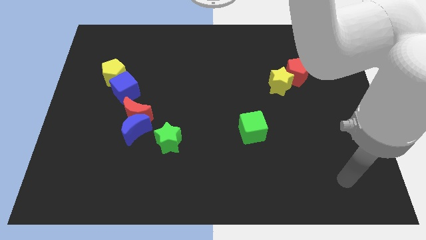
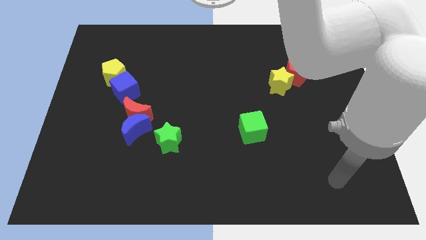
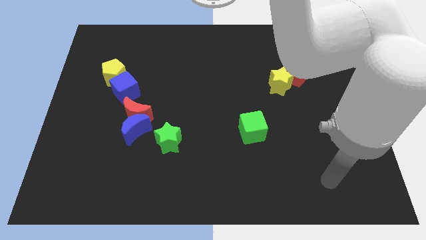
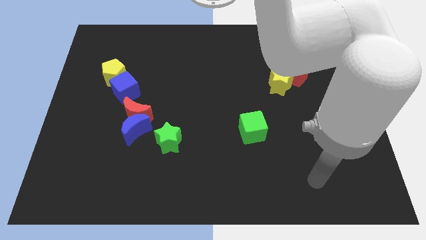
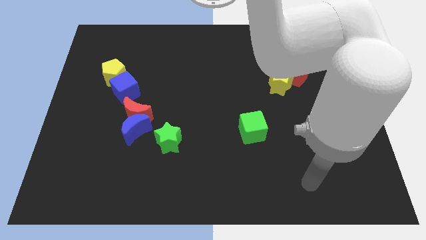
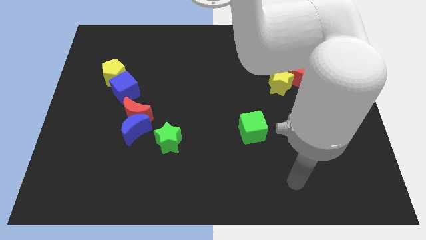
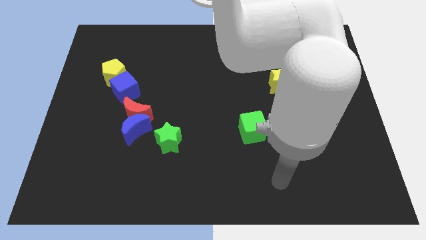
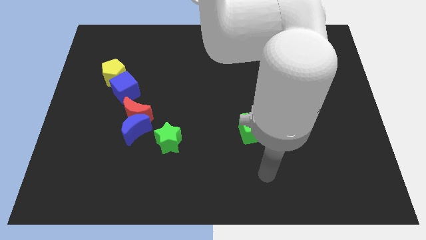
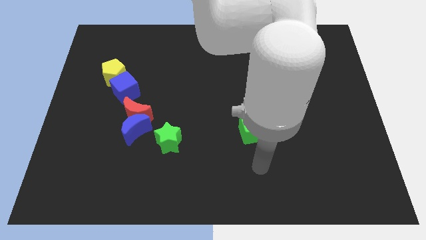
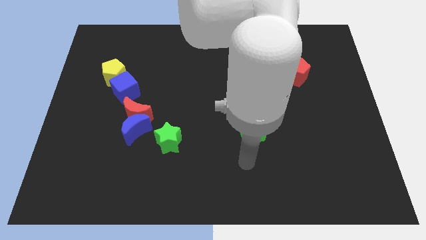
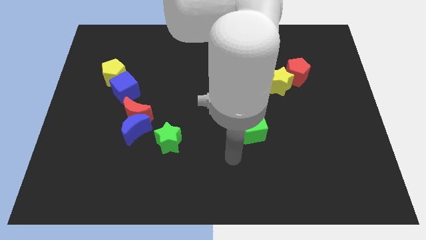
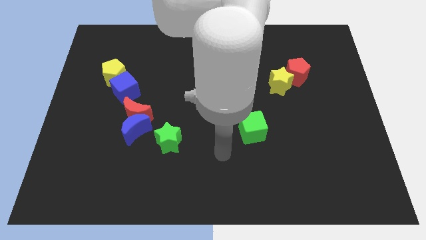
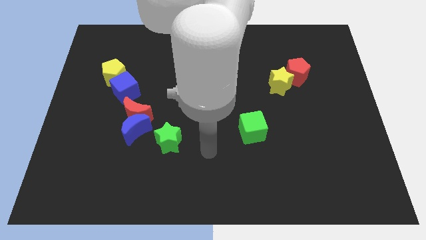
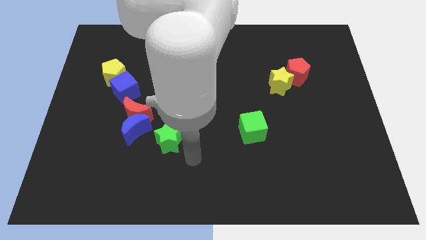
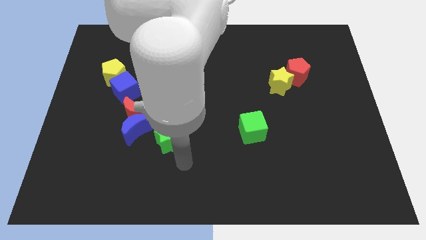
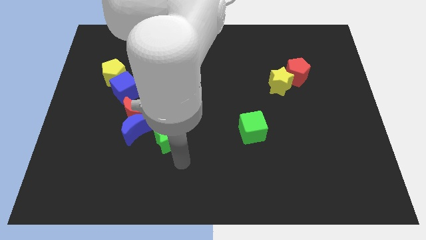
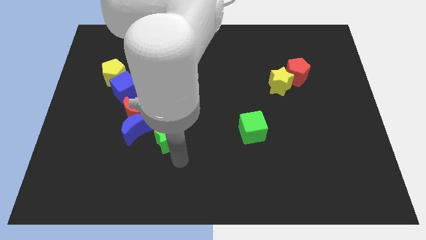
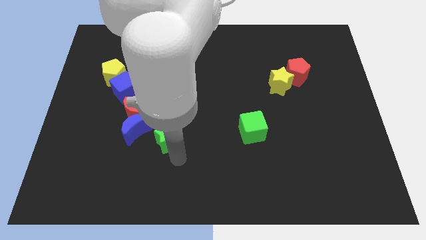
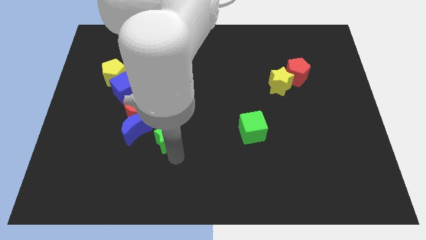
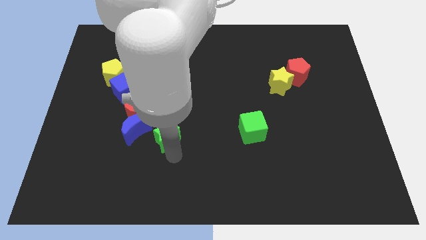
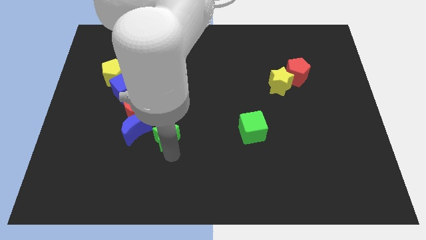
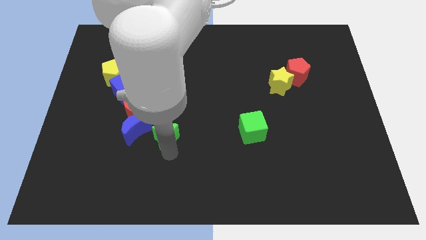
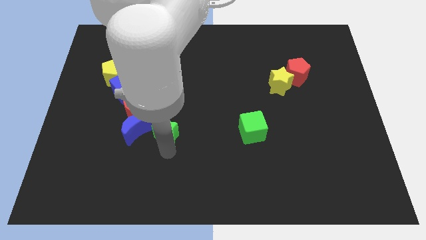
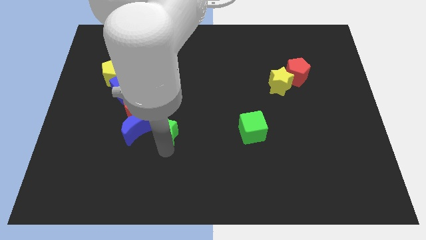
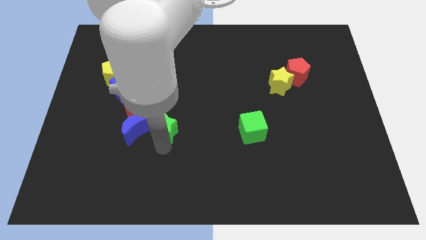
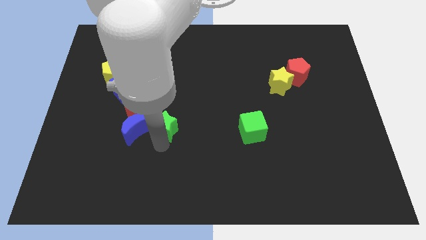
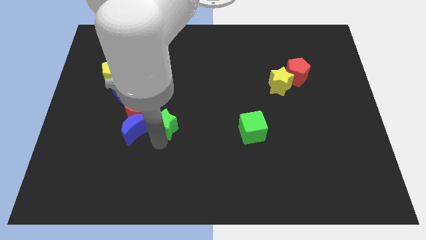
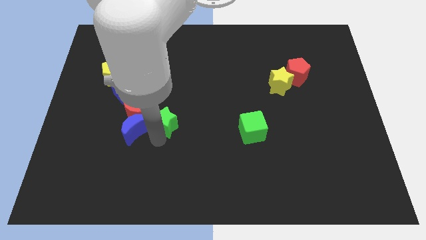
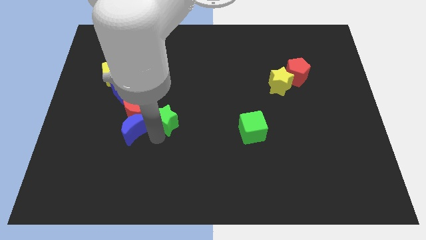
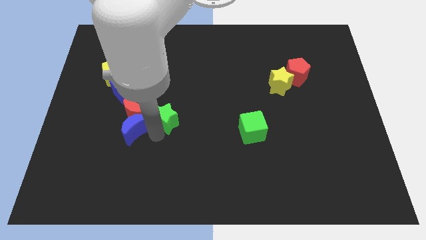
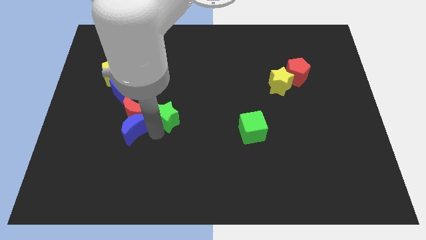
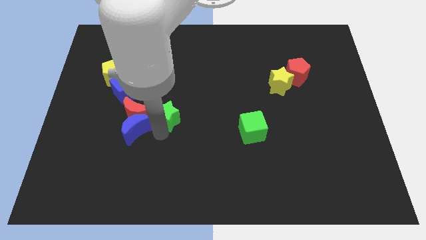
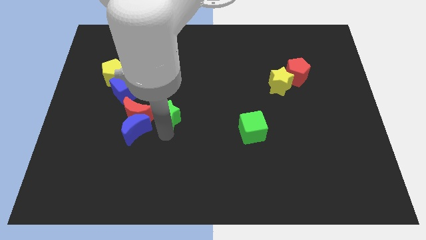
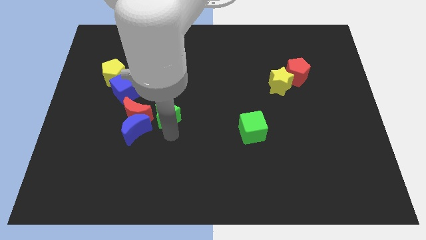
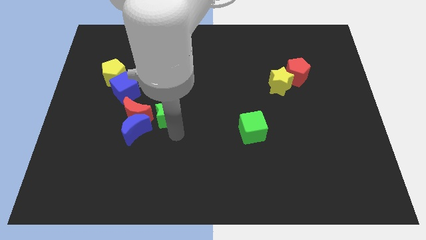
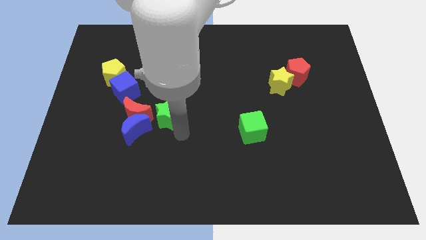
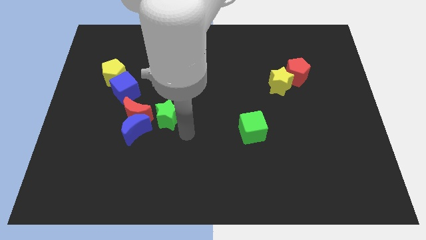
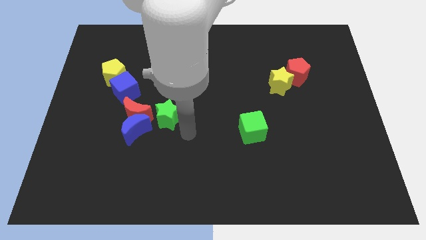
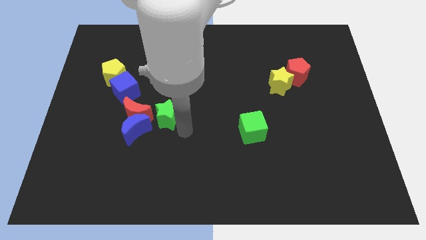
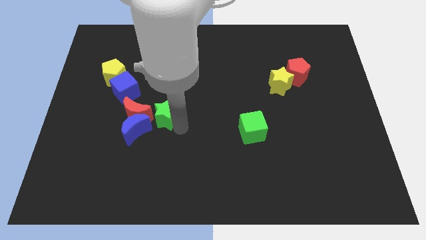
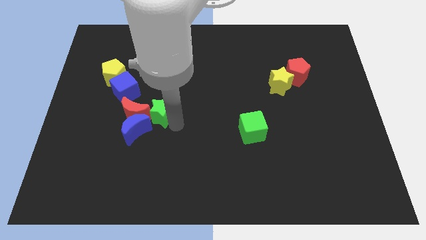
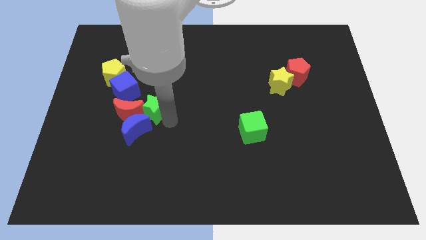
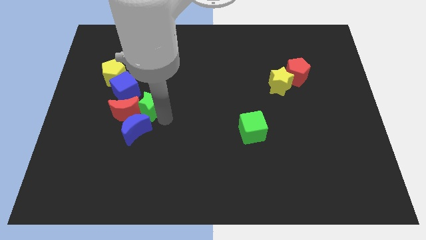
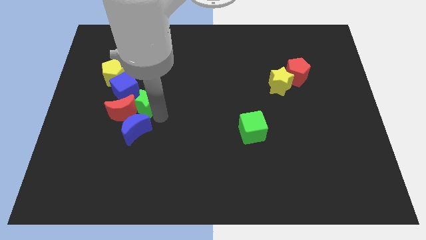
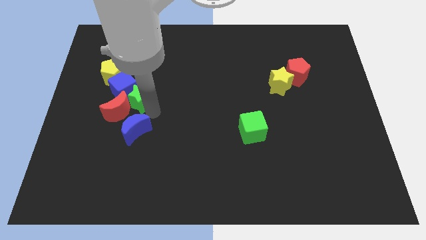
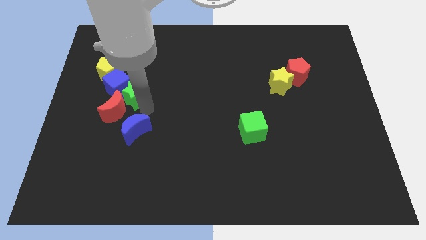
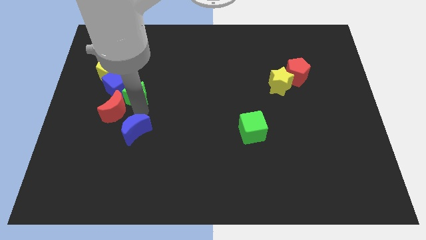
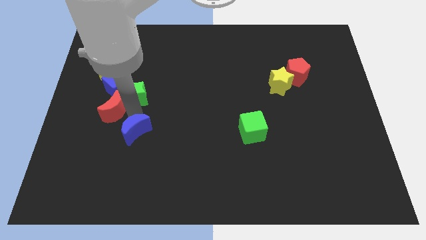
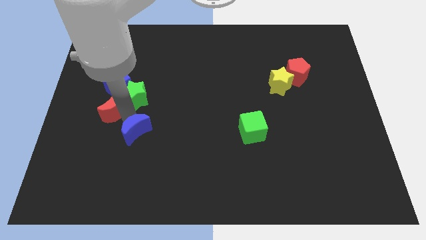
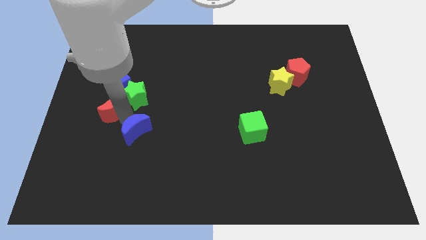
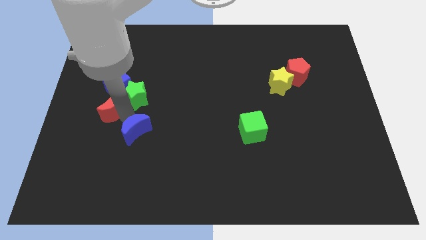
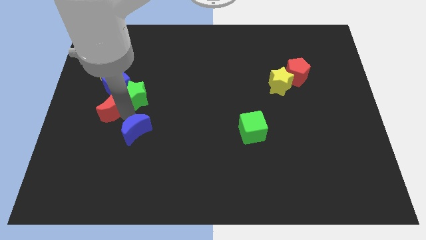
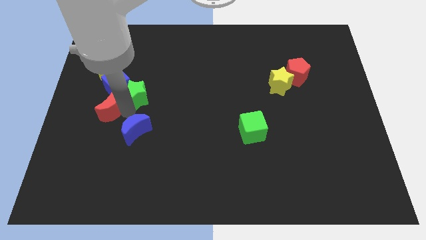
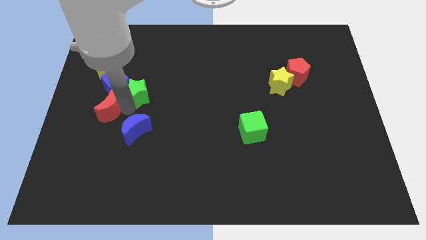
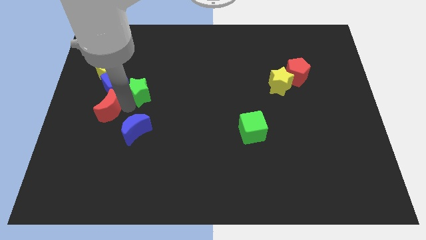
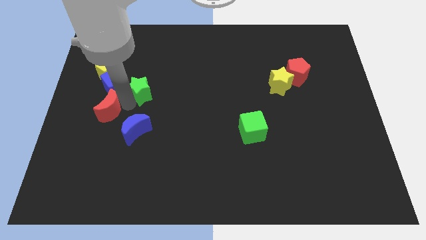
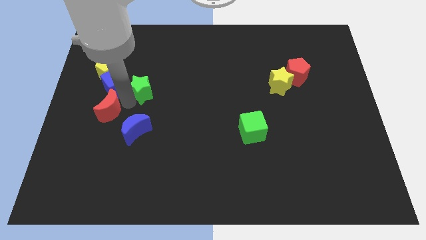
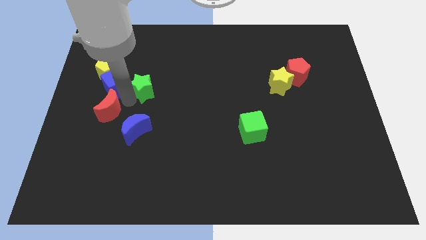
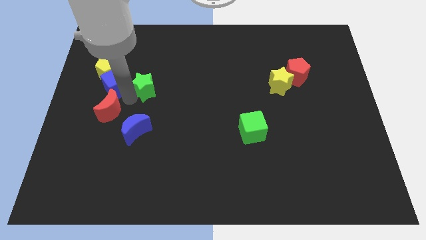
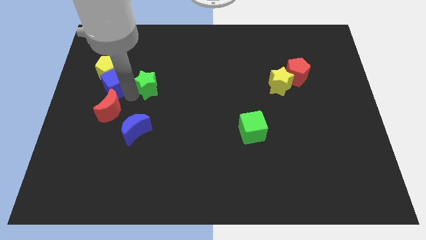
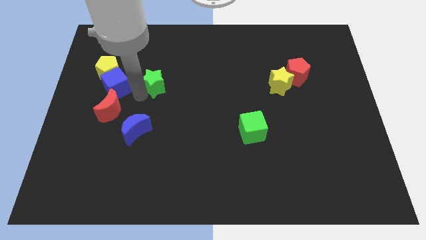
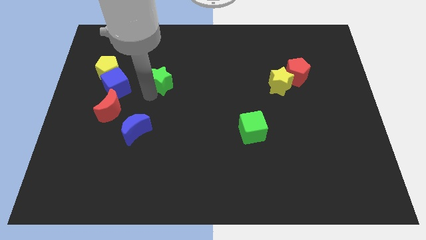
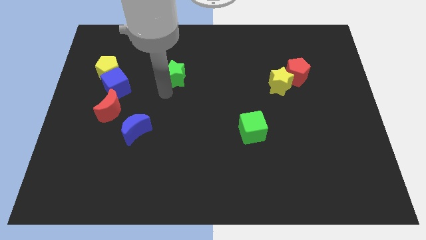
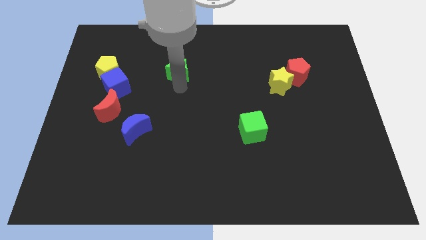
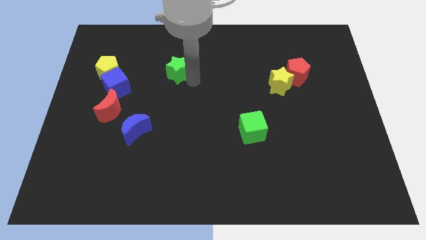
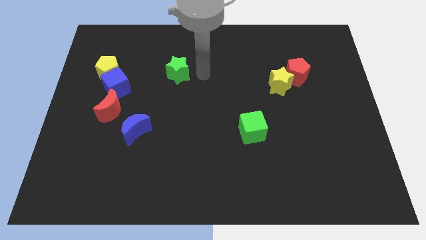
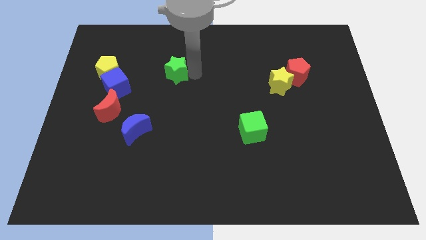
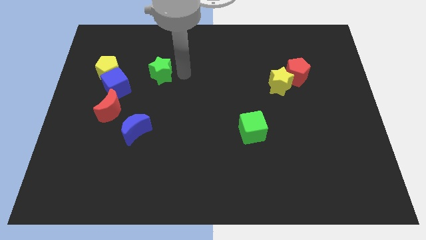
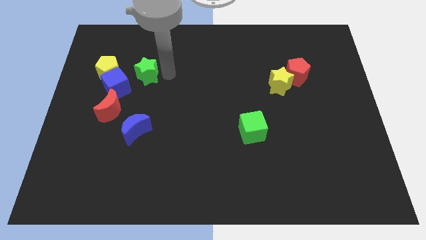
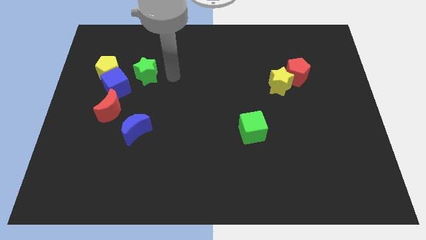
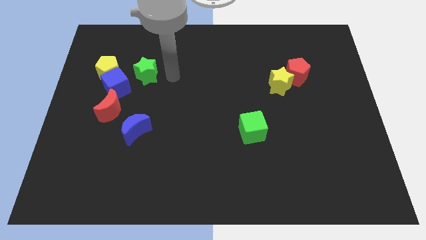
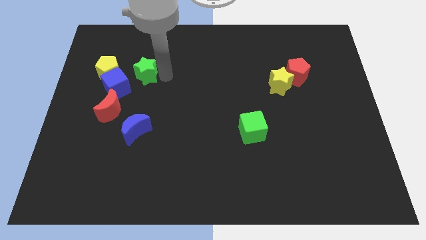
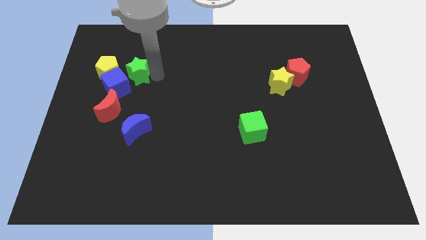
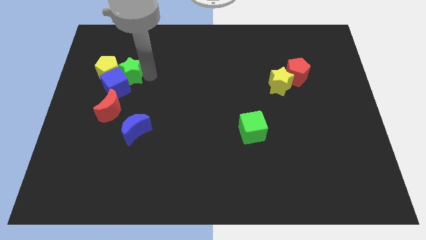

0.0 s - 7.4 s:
put the green star towards the yellow pentagon

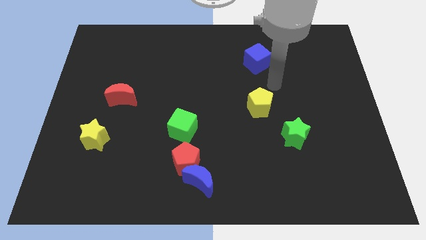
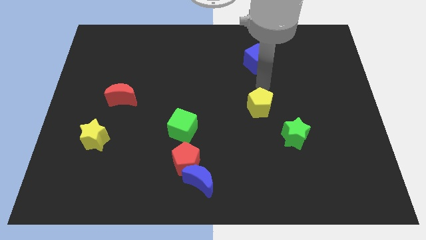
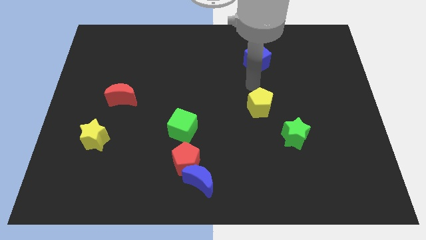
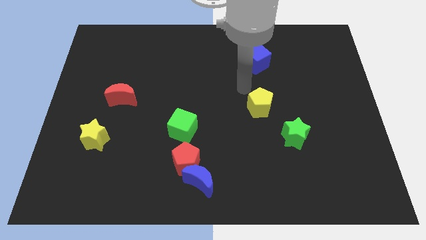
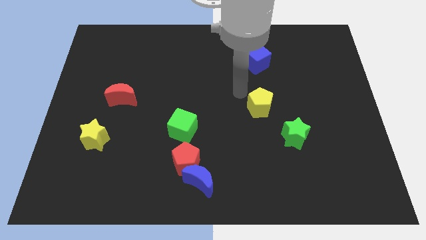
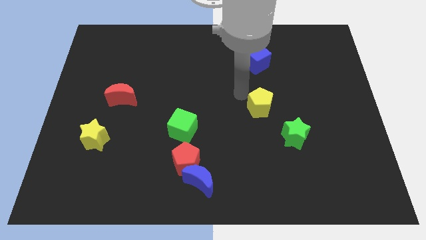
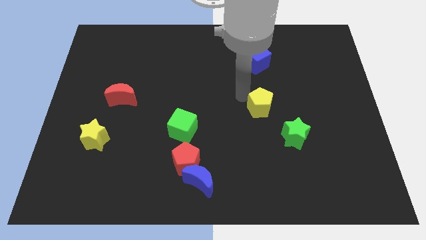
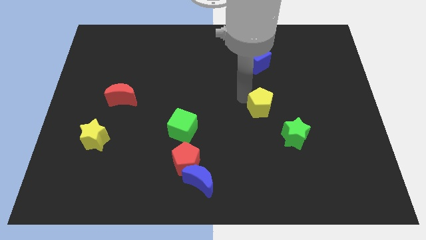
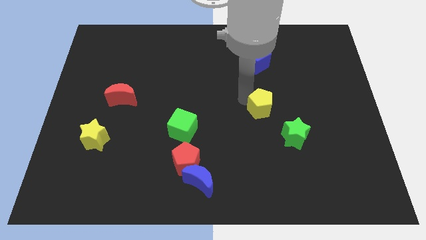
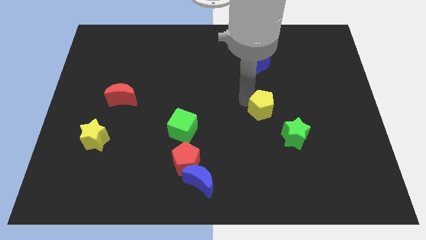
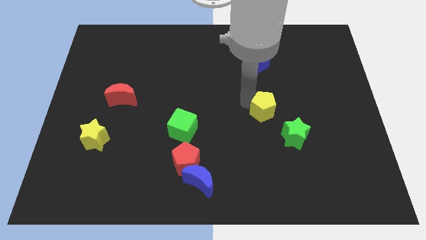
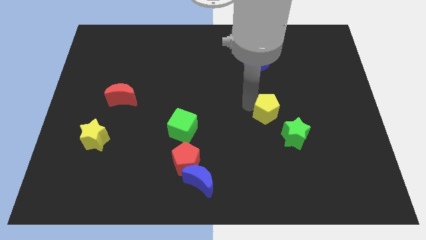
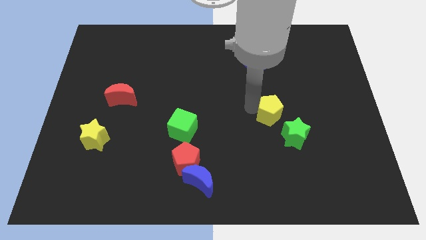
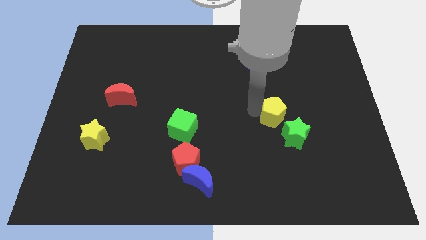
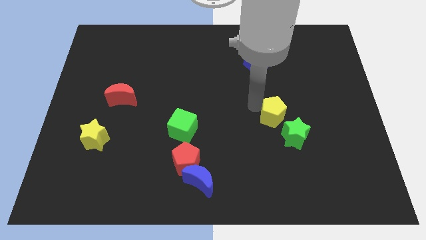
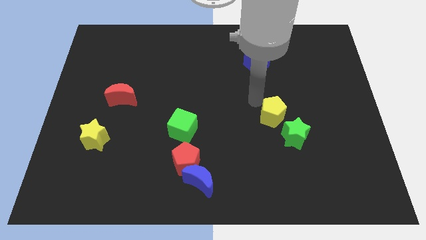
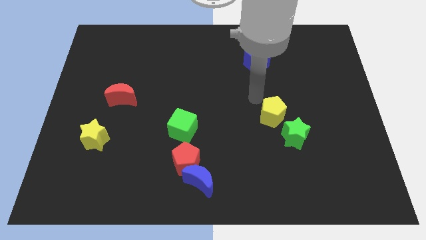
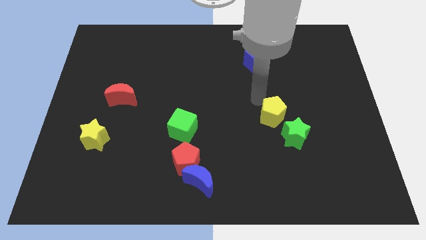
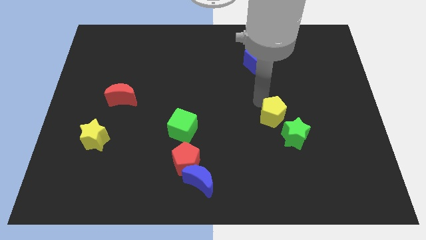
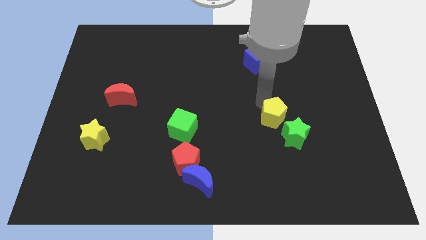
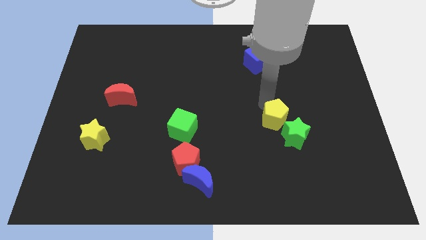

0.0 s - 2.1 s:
move the yellow pentagon towards the green star
